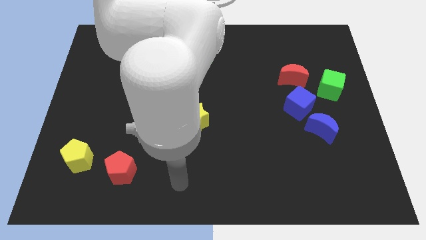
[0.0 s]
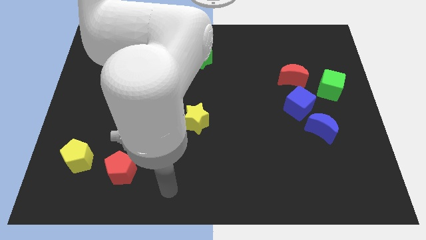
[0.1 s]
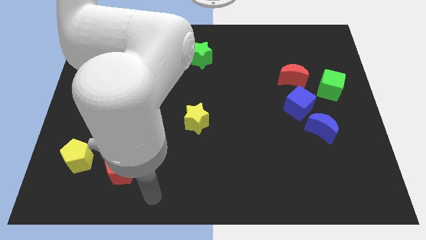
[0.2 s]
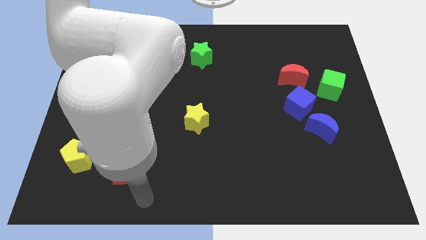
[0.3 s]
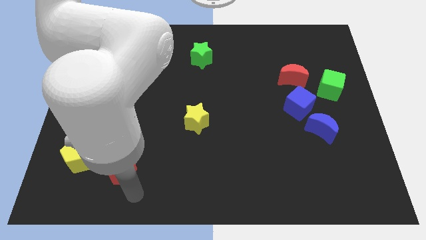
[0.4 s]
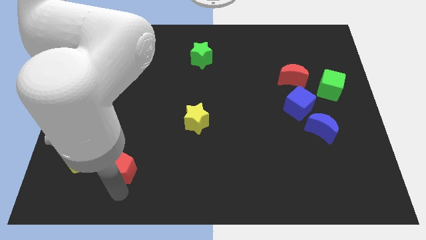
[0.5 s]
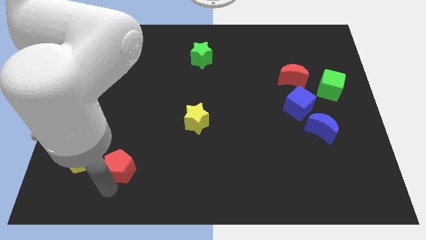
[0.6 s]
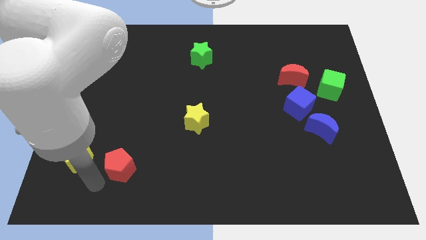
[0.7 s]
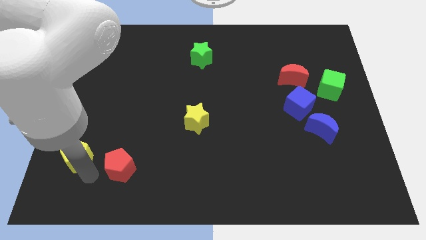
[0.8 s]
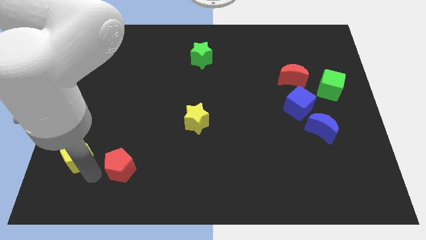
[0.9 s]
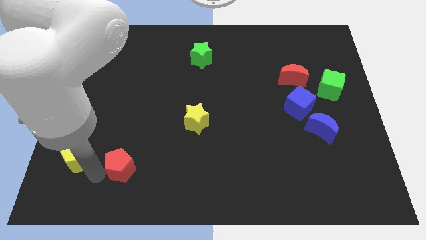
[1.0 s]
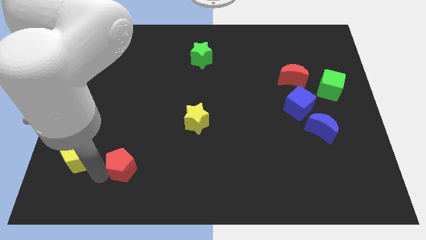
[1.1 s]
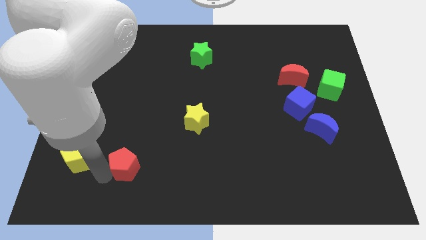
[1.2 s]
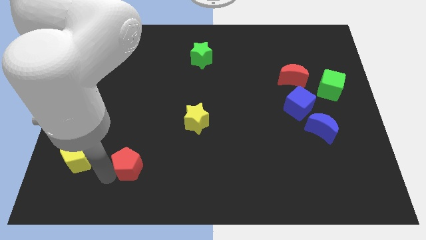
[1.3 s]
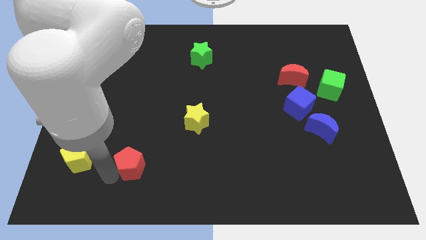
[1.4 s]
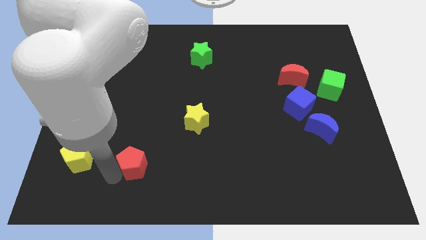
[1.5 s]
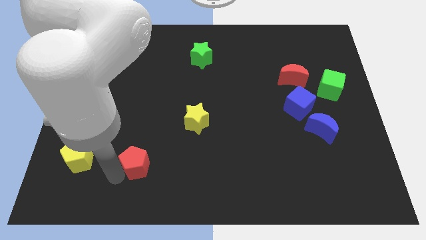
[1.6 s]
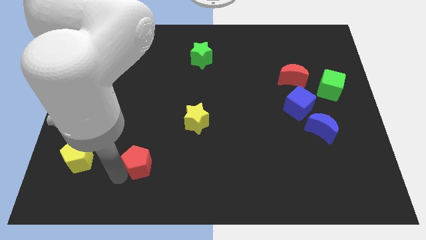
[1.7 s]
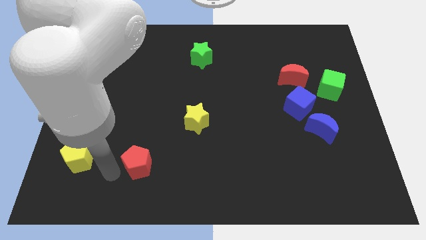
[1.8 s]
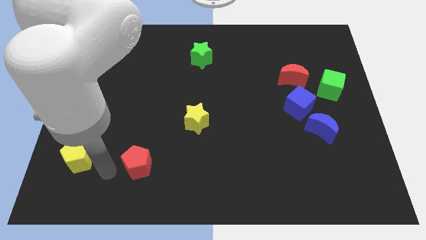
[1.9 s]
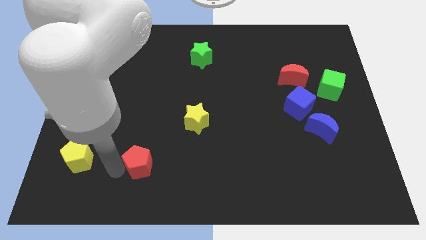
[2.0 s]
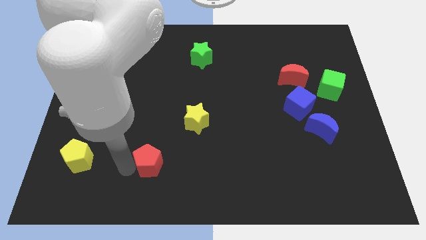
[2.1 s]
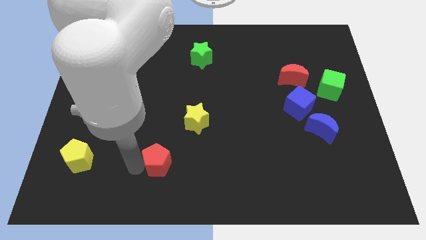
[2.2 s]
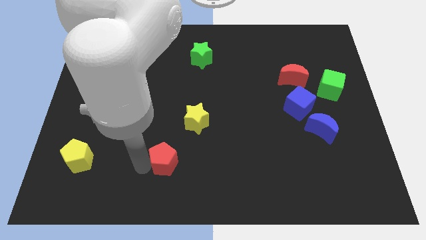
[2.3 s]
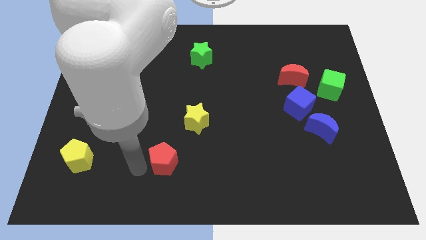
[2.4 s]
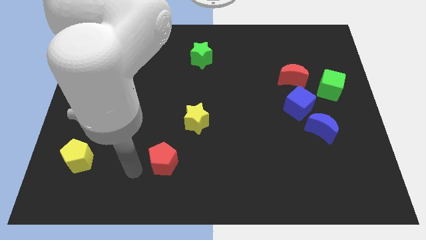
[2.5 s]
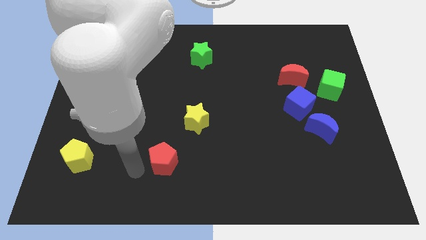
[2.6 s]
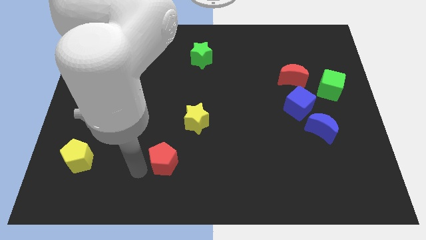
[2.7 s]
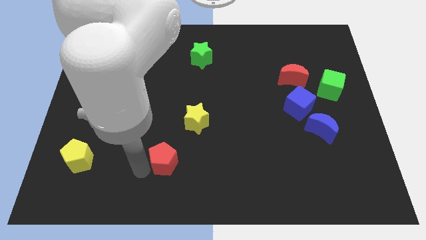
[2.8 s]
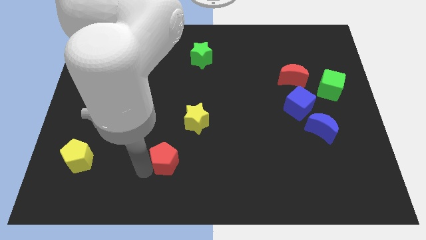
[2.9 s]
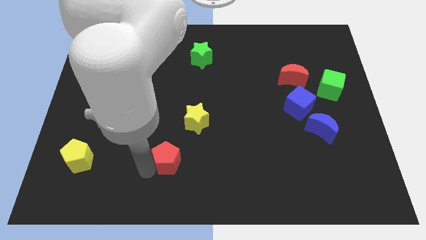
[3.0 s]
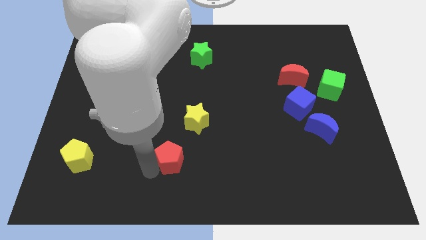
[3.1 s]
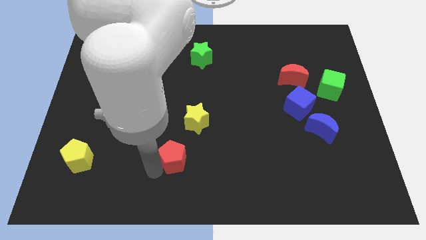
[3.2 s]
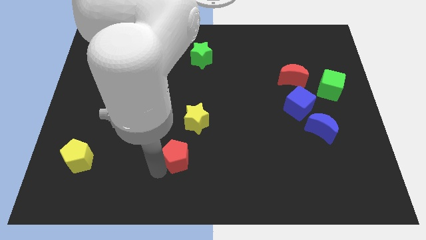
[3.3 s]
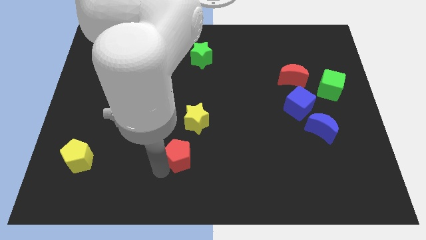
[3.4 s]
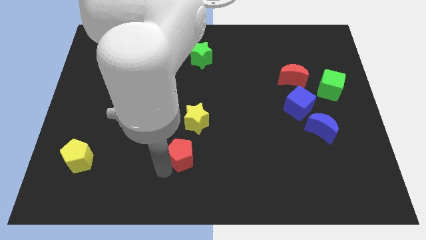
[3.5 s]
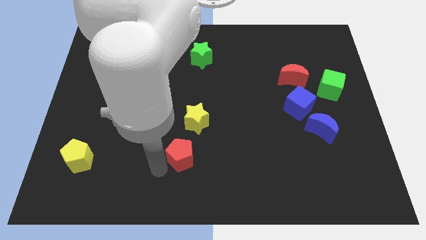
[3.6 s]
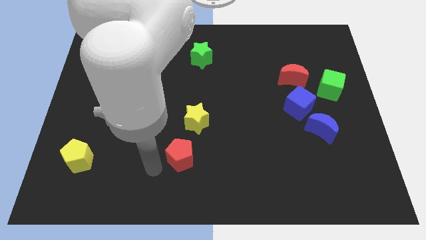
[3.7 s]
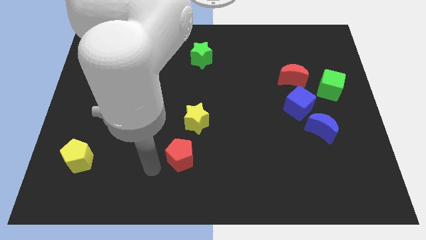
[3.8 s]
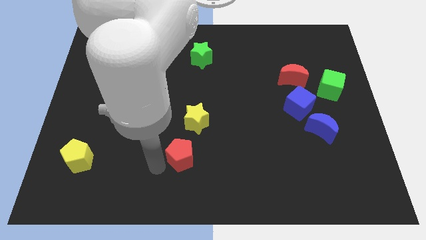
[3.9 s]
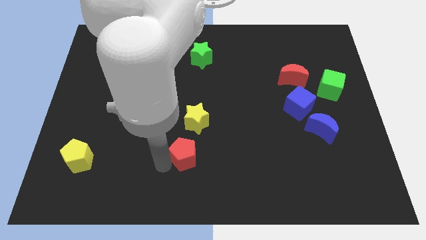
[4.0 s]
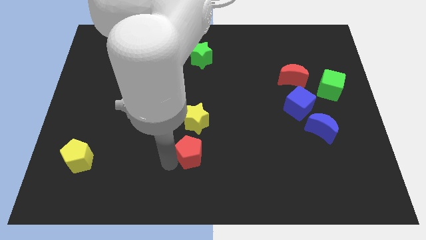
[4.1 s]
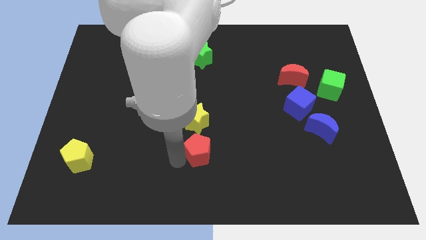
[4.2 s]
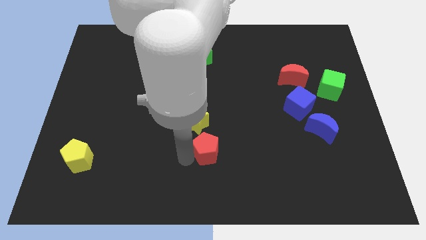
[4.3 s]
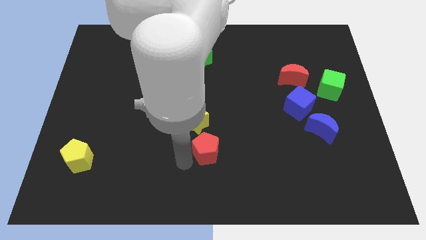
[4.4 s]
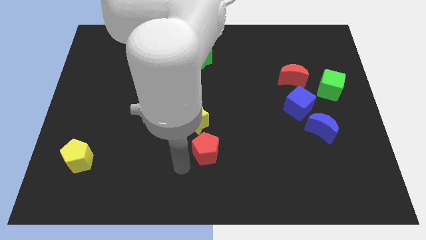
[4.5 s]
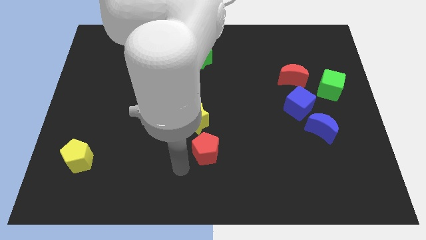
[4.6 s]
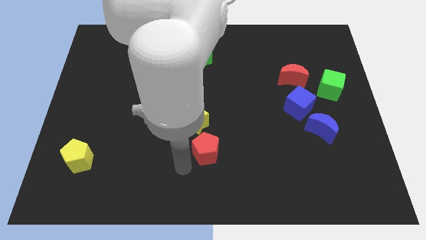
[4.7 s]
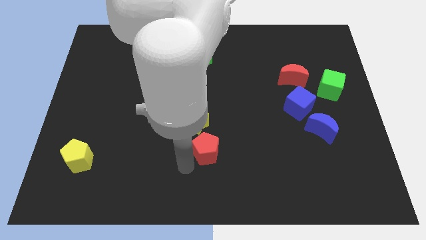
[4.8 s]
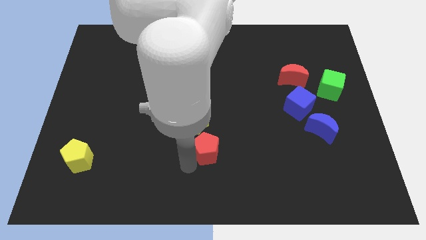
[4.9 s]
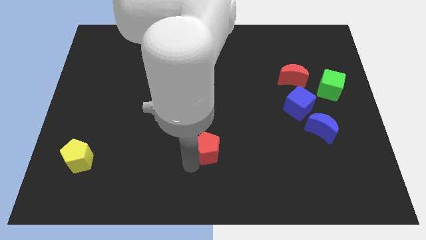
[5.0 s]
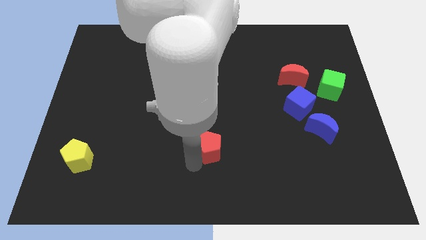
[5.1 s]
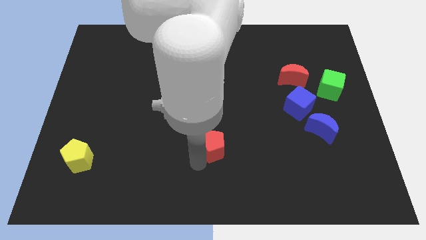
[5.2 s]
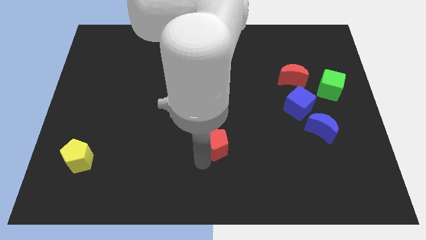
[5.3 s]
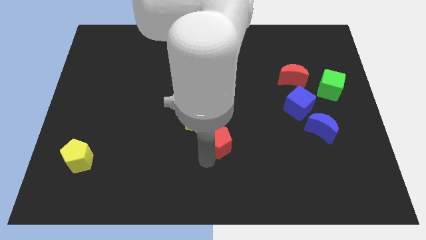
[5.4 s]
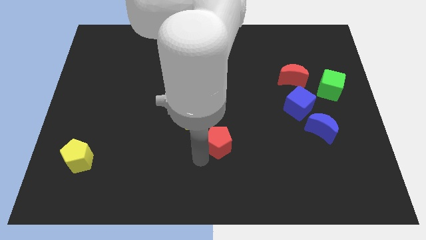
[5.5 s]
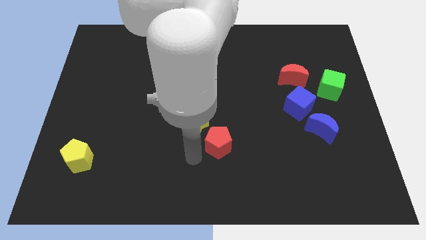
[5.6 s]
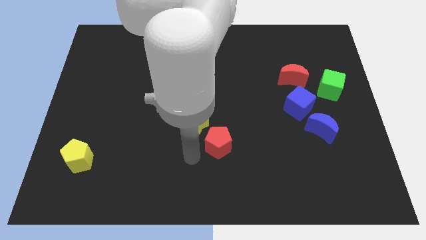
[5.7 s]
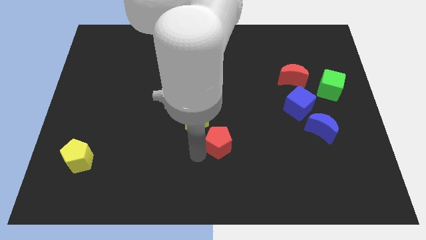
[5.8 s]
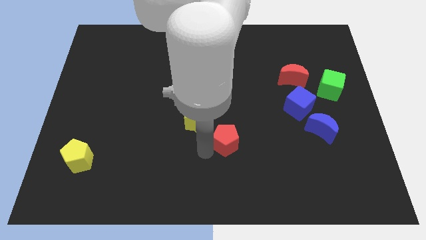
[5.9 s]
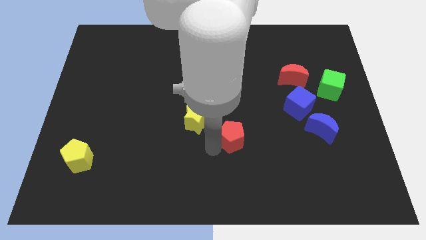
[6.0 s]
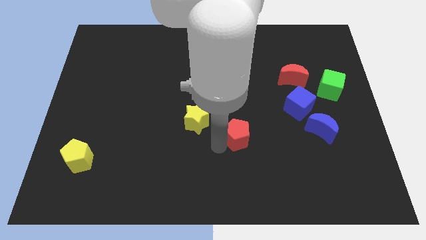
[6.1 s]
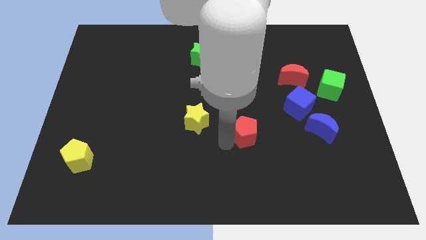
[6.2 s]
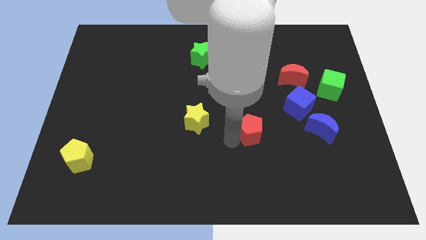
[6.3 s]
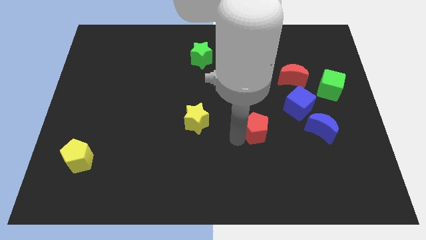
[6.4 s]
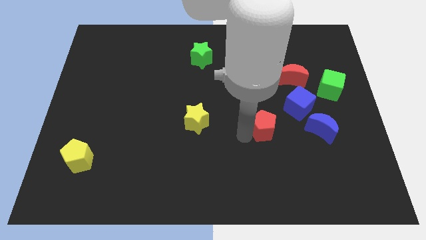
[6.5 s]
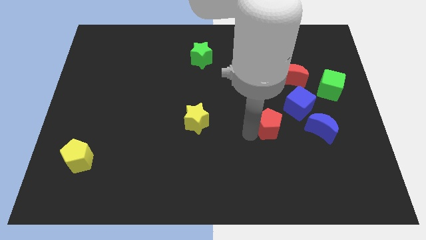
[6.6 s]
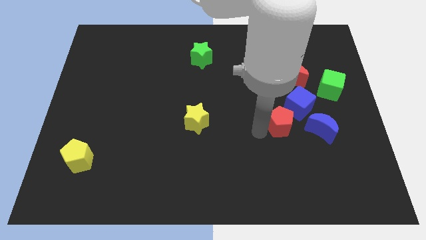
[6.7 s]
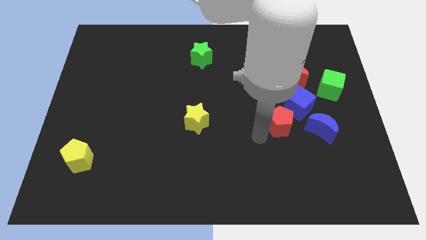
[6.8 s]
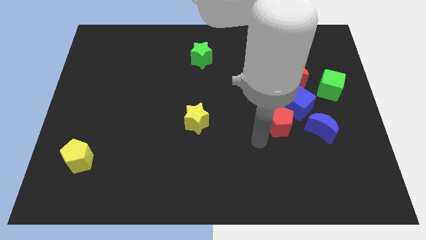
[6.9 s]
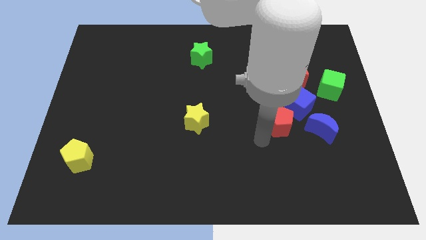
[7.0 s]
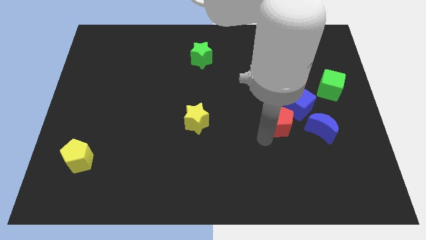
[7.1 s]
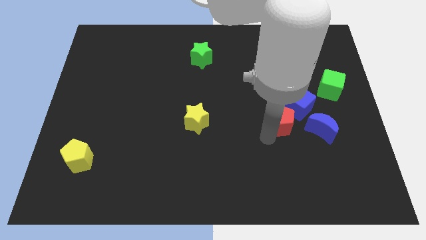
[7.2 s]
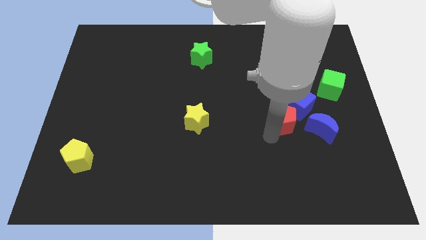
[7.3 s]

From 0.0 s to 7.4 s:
push the red pentagon to the bottom of the red moon
